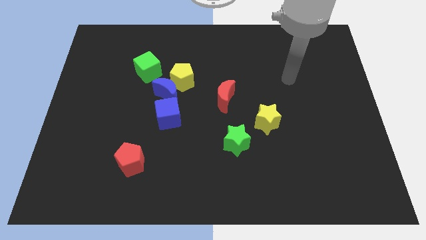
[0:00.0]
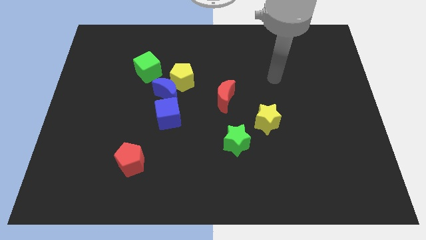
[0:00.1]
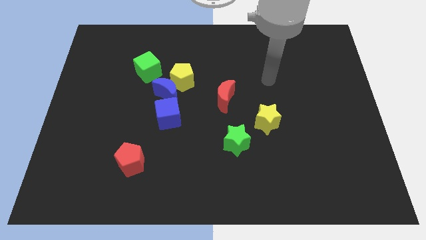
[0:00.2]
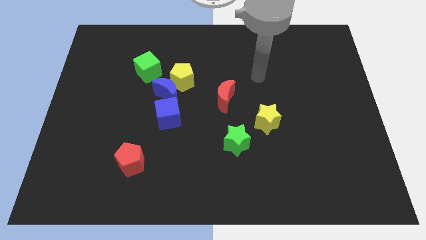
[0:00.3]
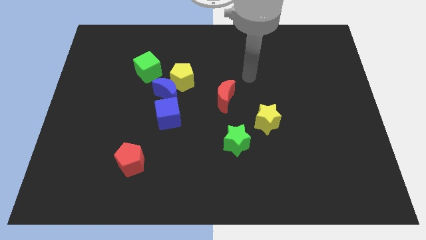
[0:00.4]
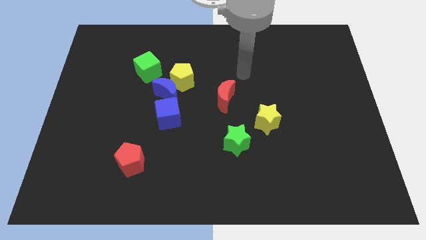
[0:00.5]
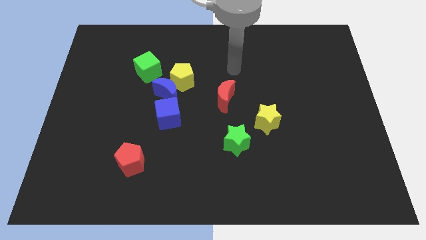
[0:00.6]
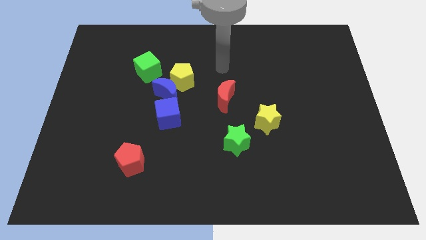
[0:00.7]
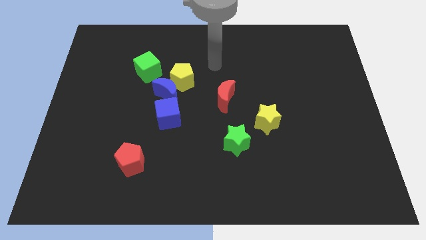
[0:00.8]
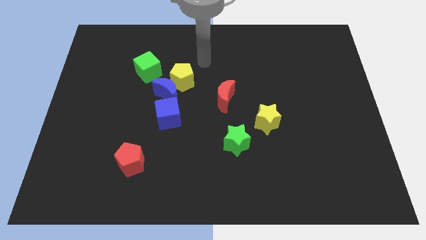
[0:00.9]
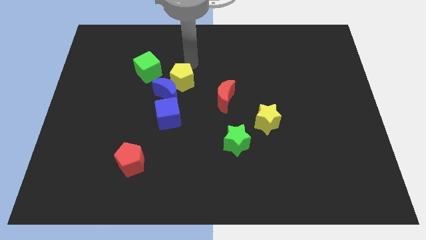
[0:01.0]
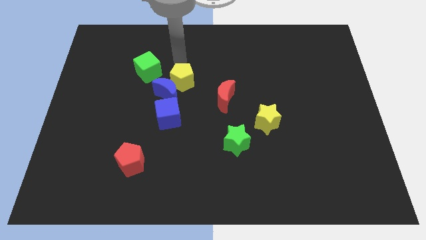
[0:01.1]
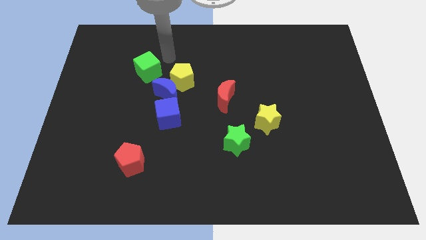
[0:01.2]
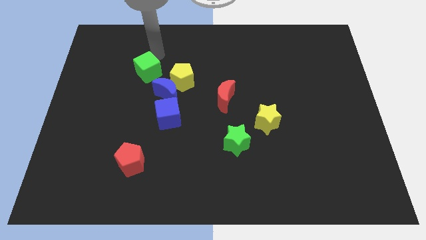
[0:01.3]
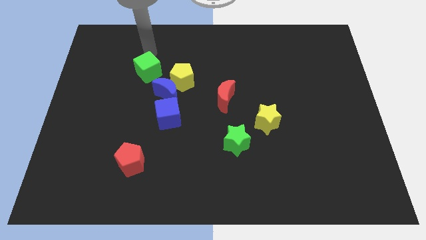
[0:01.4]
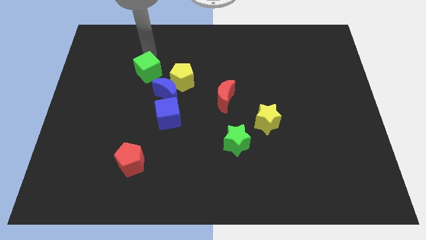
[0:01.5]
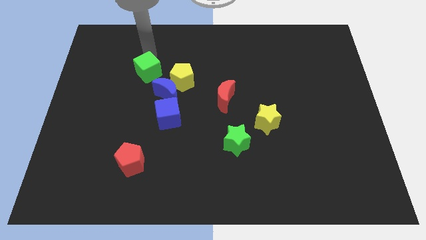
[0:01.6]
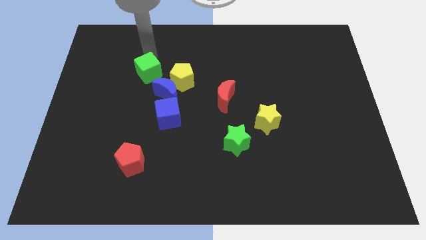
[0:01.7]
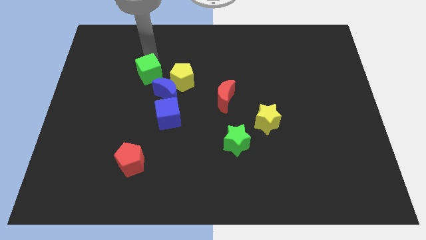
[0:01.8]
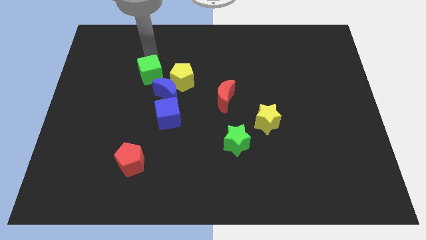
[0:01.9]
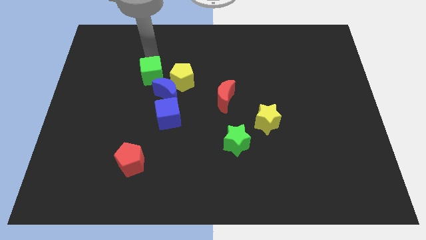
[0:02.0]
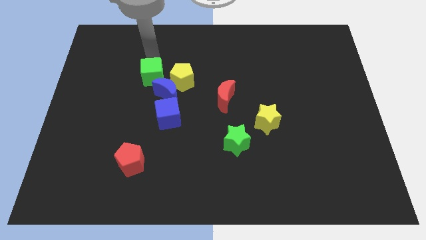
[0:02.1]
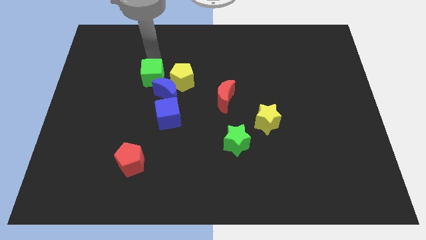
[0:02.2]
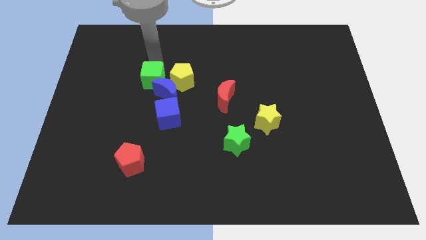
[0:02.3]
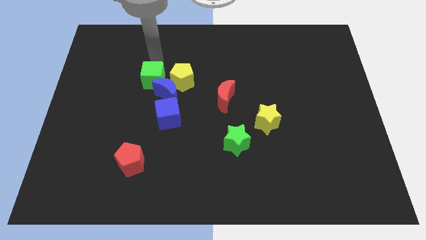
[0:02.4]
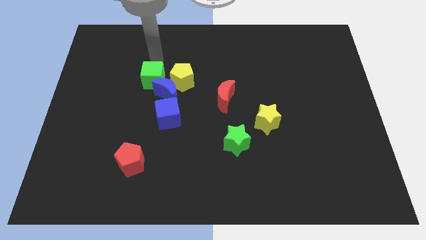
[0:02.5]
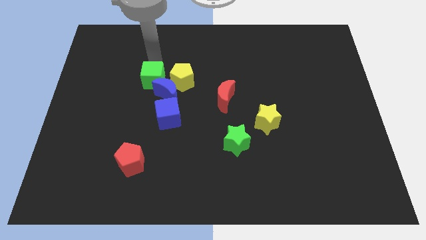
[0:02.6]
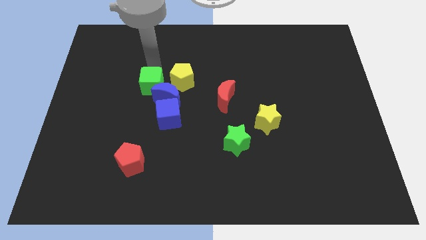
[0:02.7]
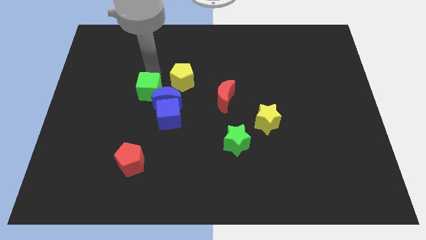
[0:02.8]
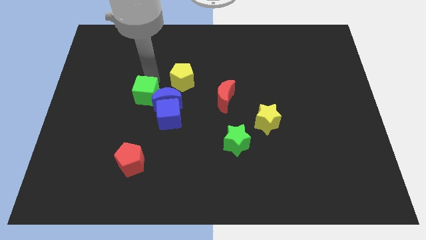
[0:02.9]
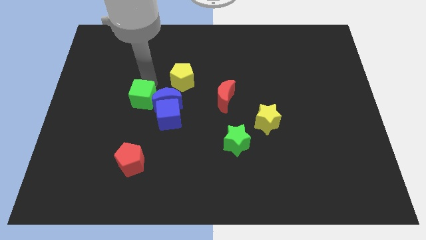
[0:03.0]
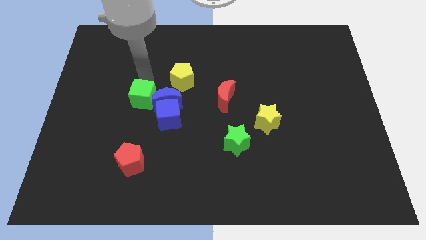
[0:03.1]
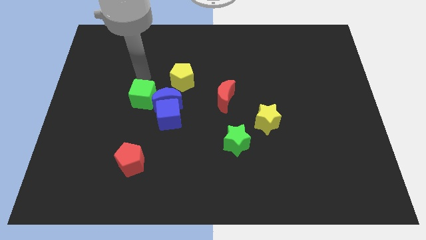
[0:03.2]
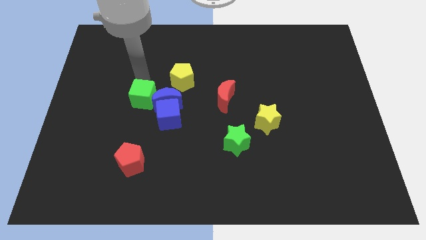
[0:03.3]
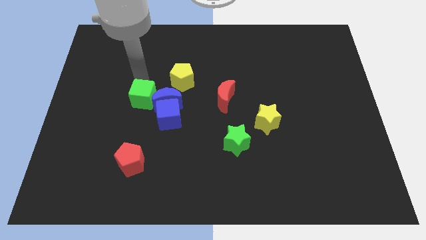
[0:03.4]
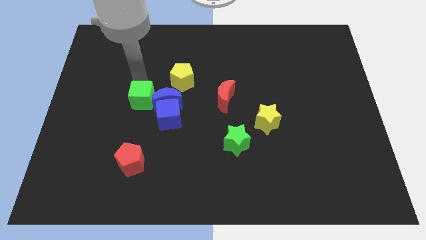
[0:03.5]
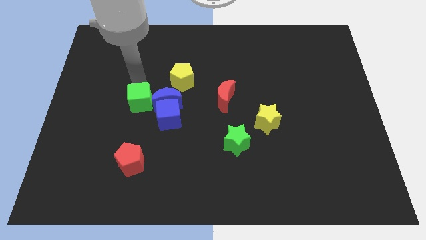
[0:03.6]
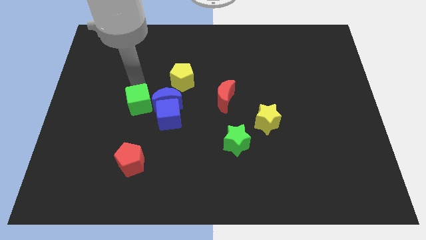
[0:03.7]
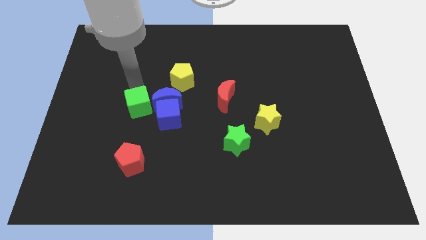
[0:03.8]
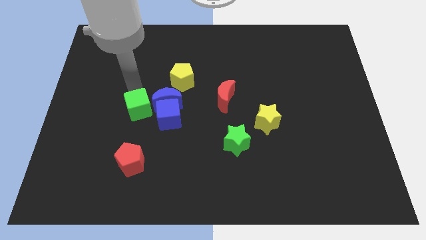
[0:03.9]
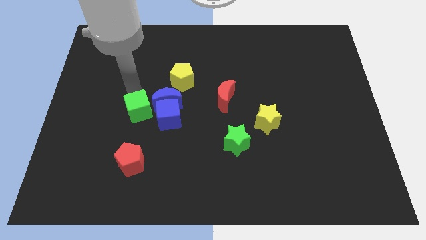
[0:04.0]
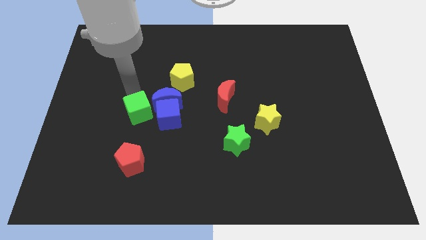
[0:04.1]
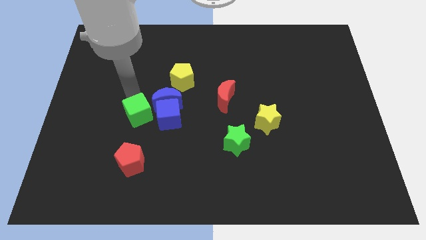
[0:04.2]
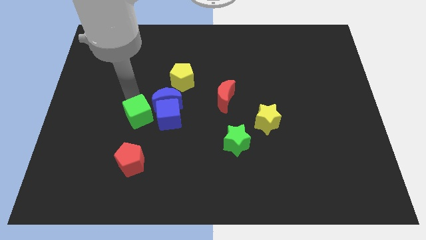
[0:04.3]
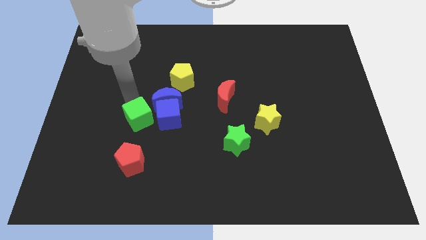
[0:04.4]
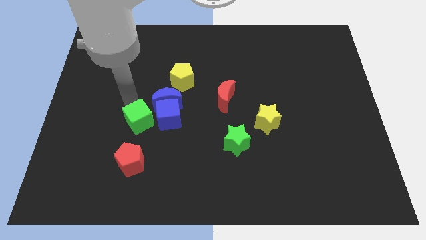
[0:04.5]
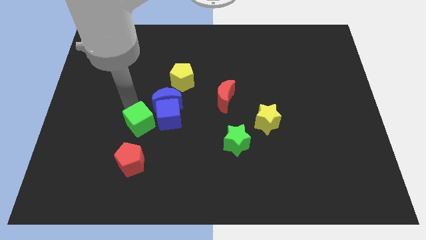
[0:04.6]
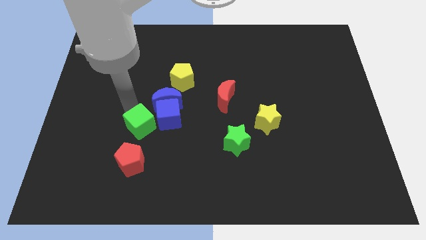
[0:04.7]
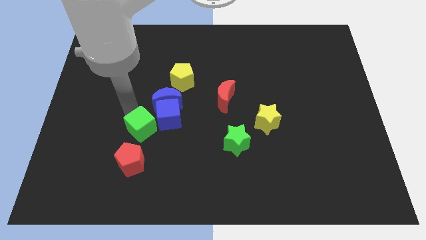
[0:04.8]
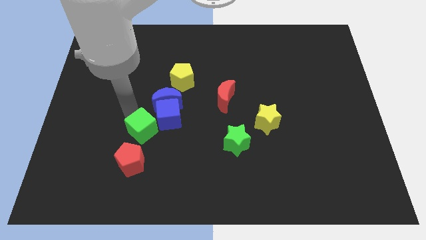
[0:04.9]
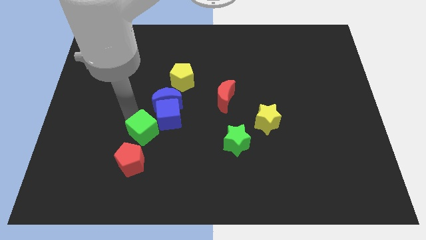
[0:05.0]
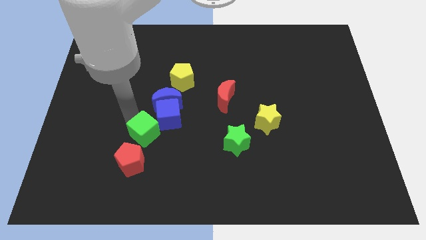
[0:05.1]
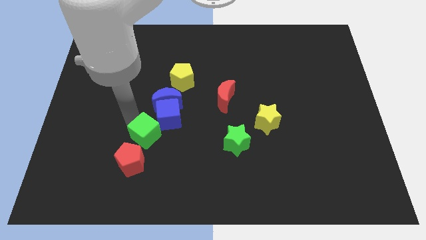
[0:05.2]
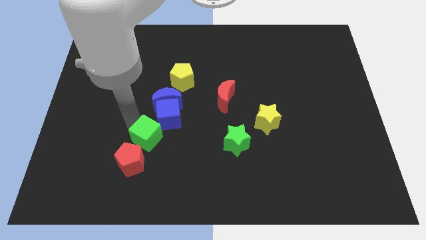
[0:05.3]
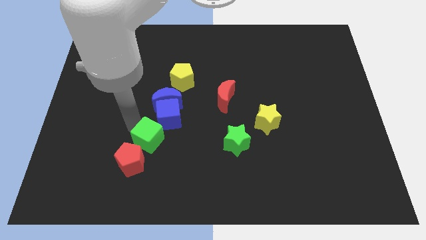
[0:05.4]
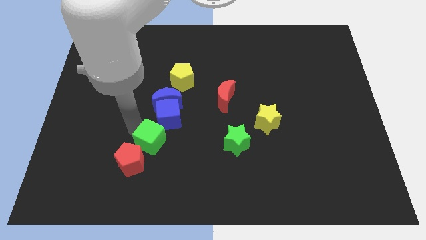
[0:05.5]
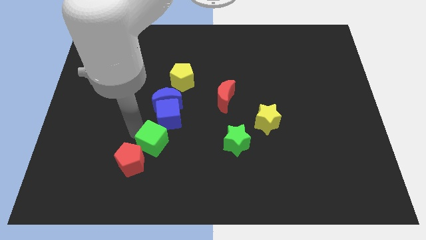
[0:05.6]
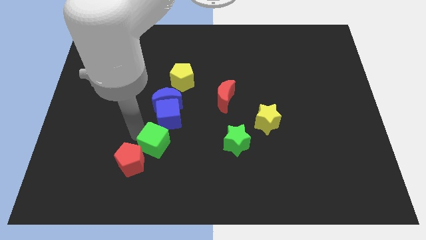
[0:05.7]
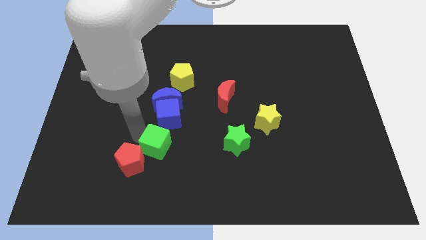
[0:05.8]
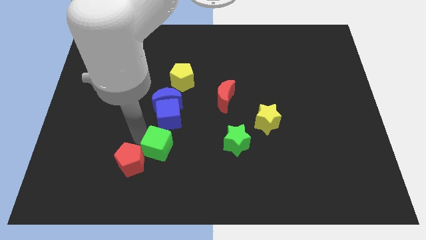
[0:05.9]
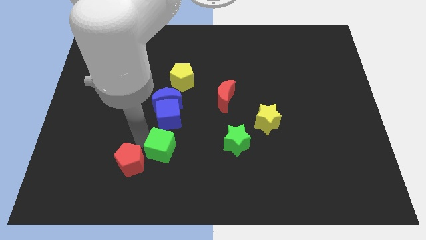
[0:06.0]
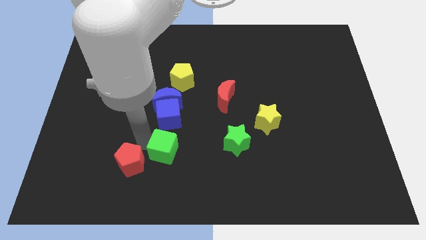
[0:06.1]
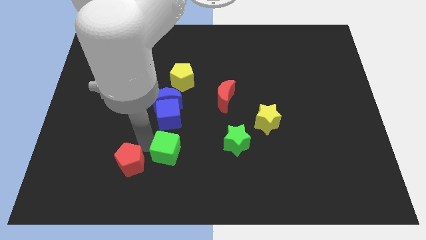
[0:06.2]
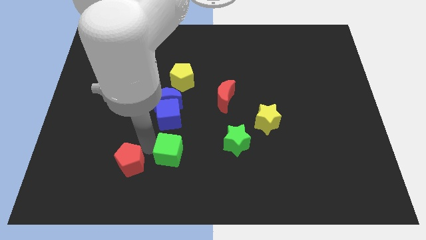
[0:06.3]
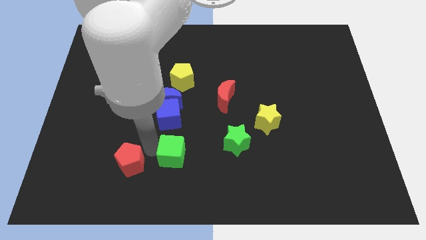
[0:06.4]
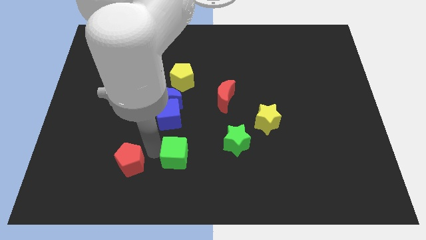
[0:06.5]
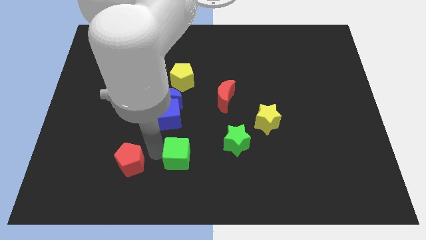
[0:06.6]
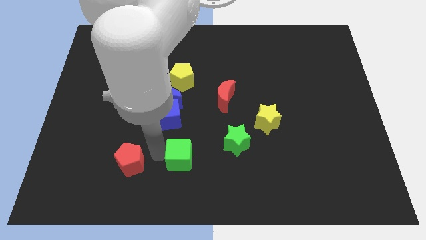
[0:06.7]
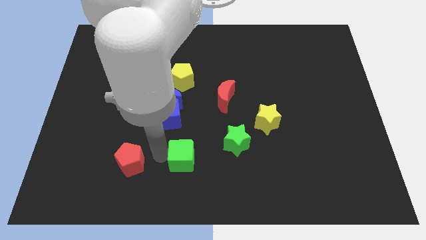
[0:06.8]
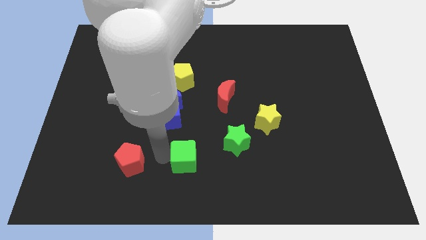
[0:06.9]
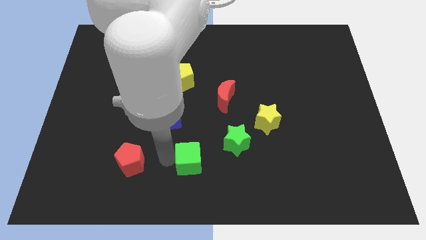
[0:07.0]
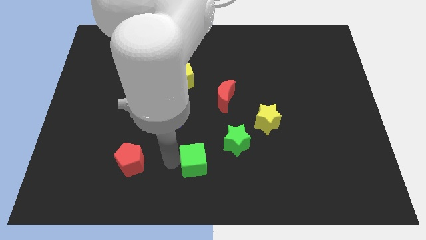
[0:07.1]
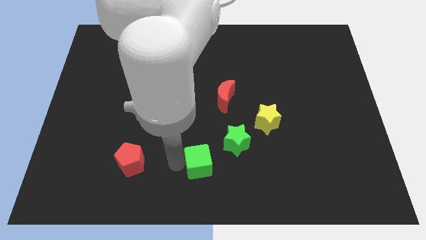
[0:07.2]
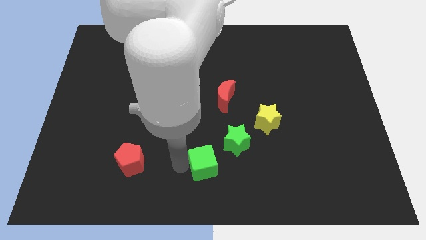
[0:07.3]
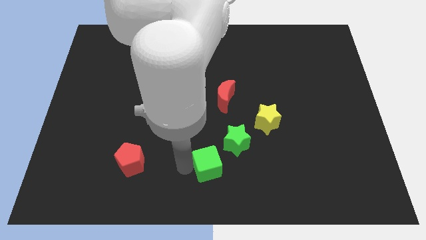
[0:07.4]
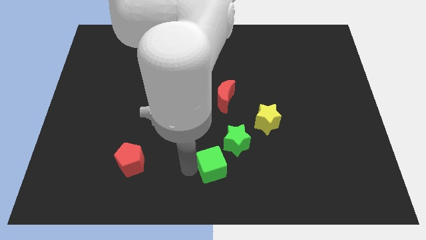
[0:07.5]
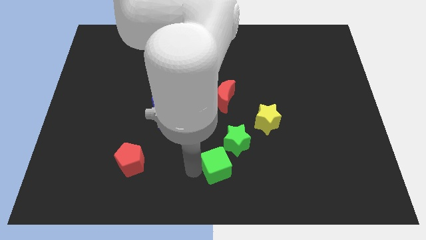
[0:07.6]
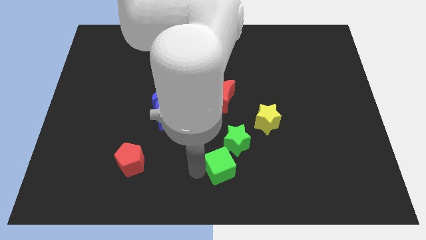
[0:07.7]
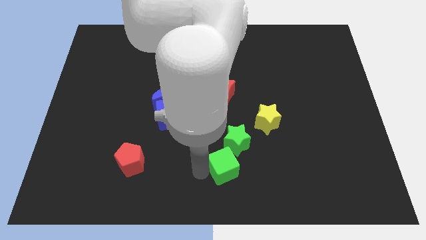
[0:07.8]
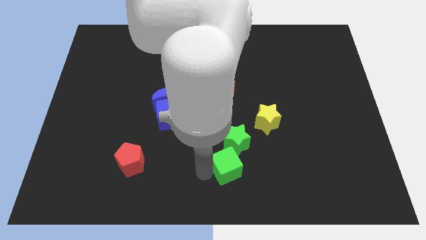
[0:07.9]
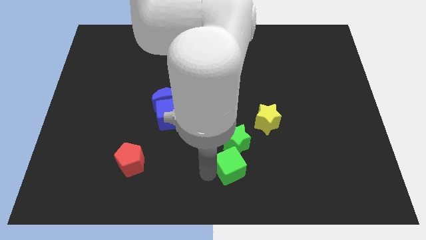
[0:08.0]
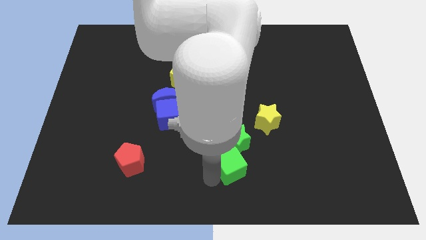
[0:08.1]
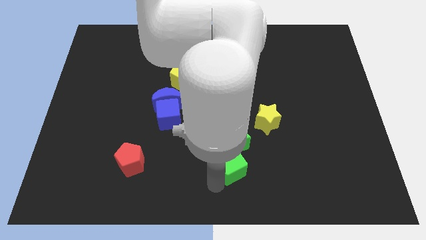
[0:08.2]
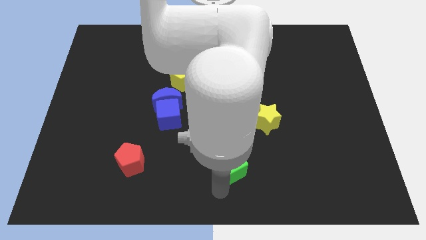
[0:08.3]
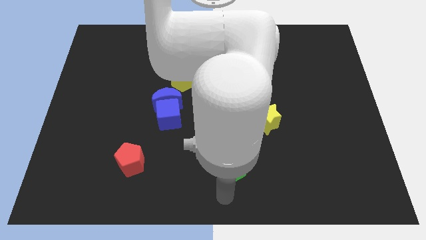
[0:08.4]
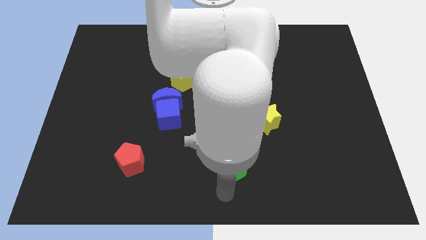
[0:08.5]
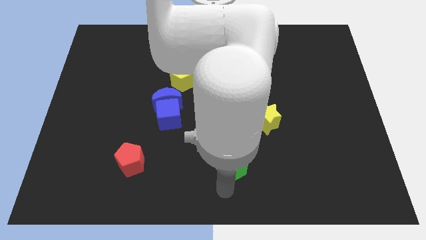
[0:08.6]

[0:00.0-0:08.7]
put the green cube close to the green star
